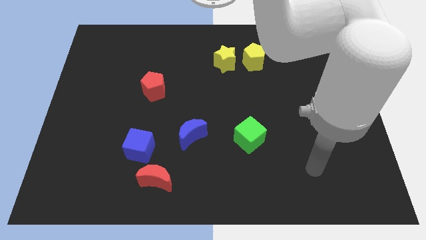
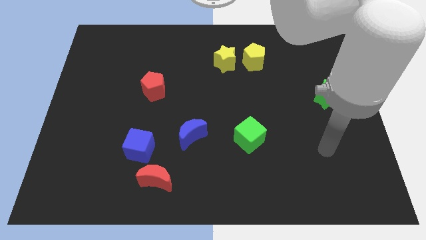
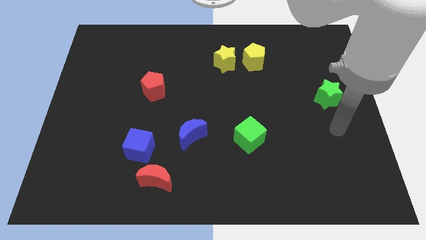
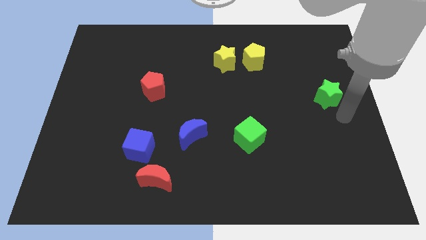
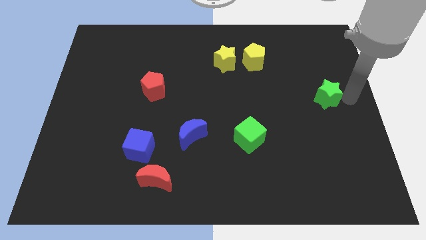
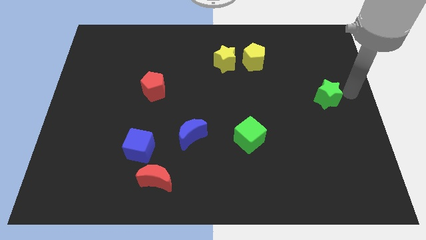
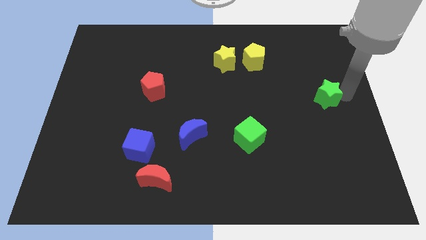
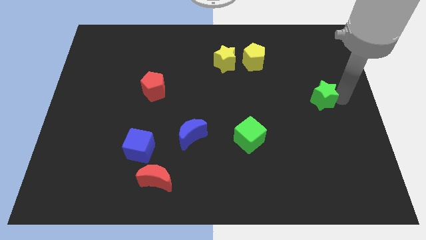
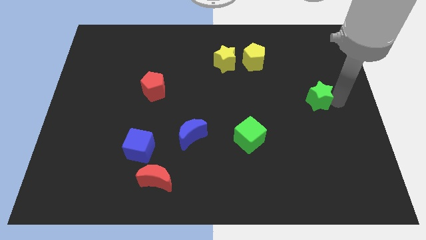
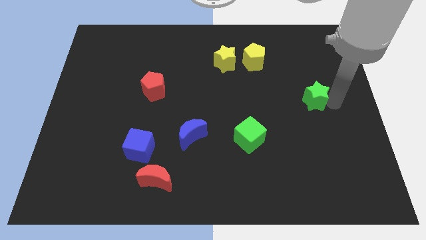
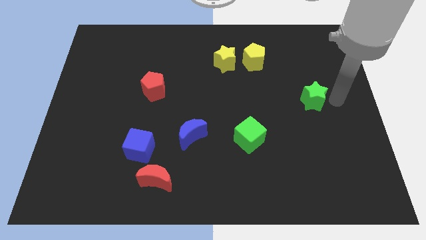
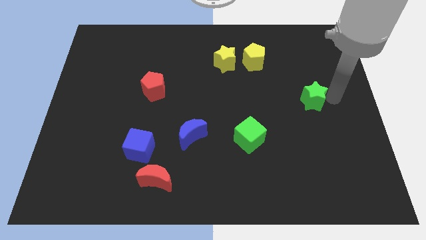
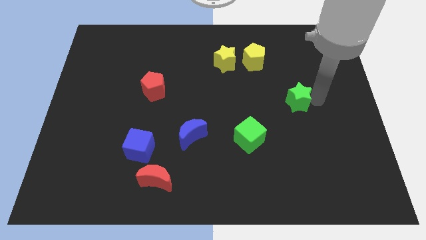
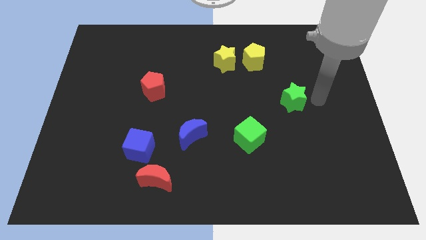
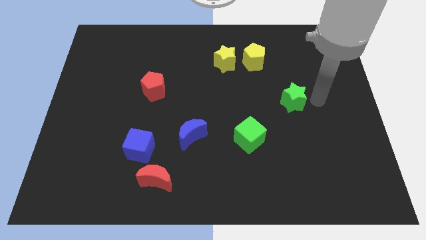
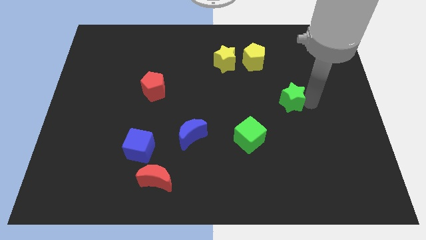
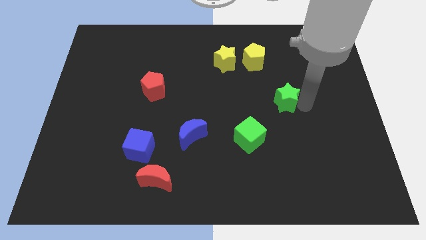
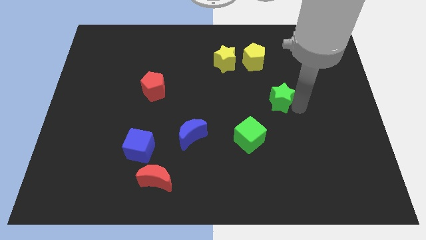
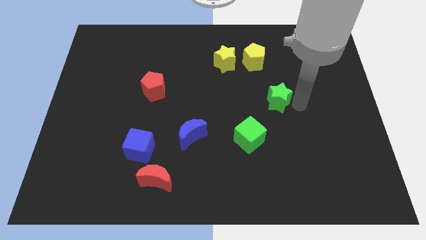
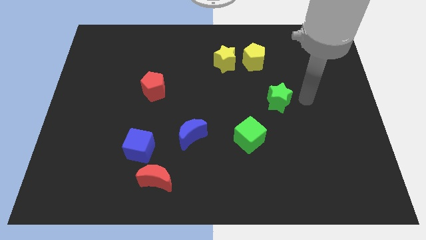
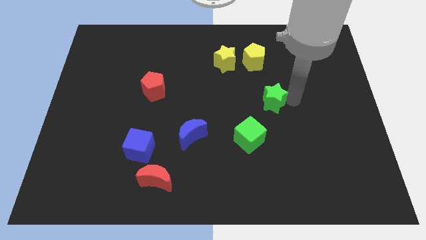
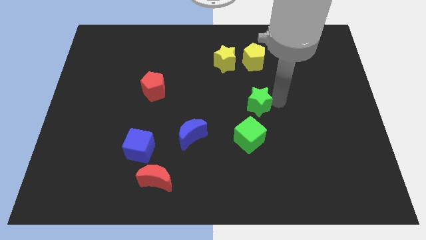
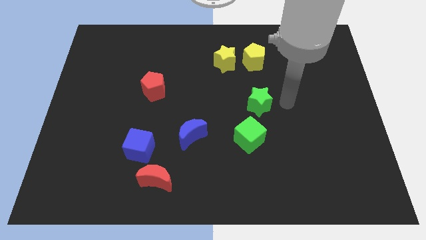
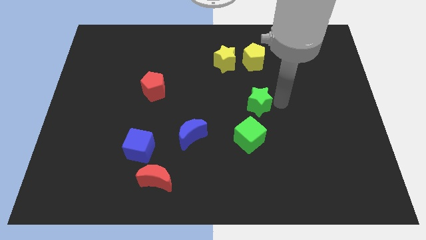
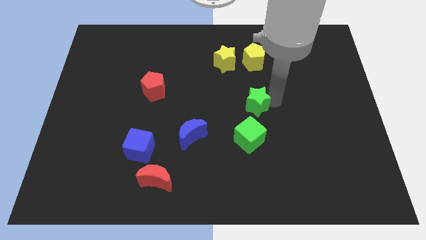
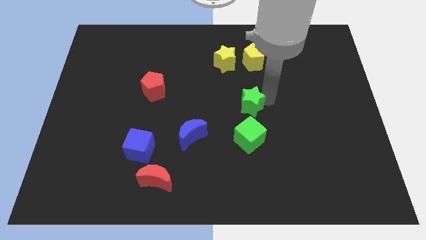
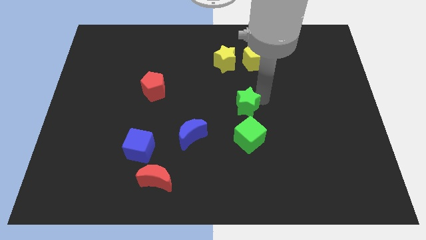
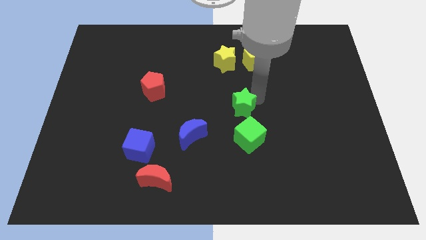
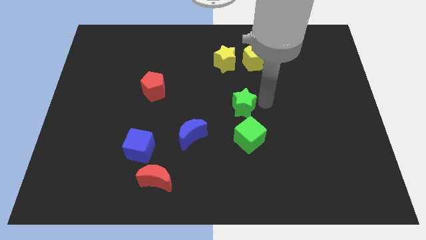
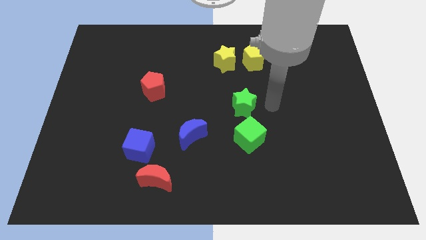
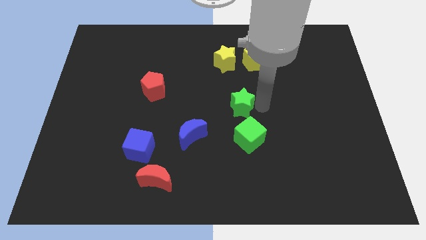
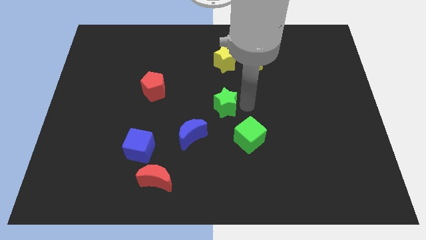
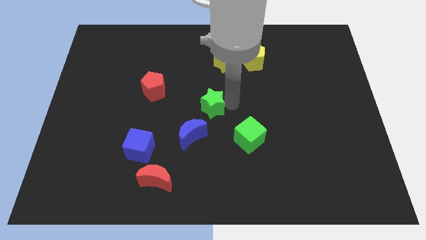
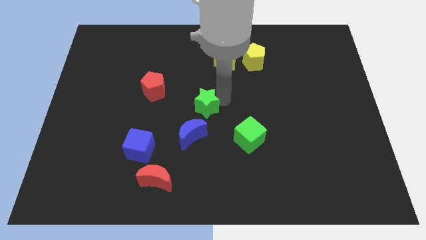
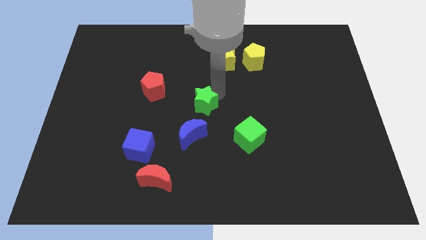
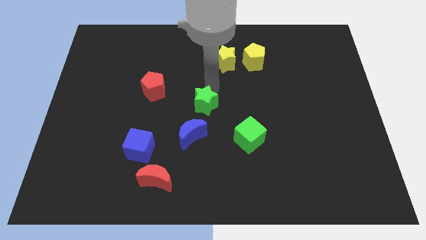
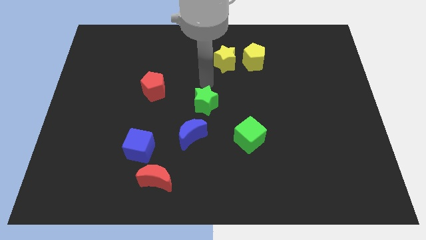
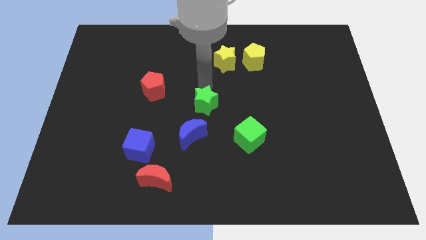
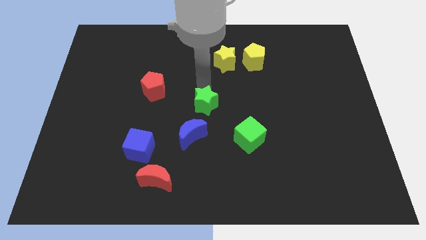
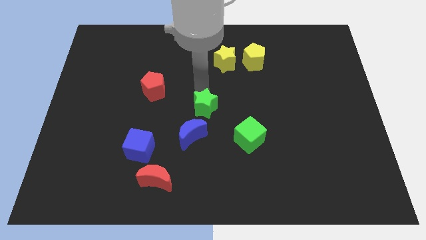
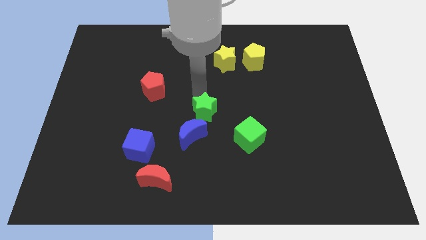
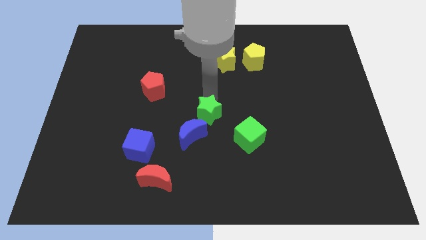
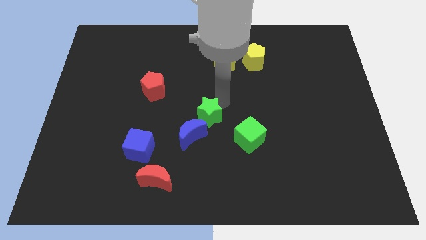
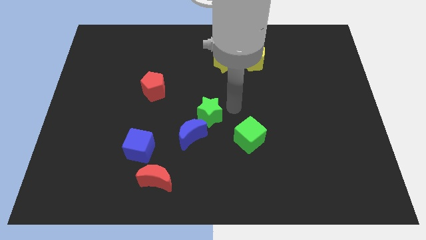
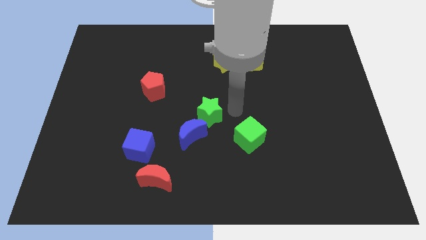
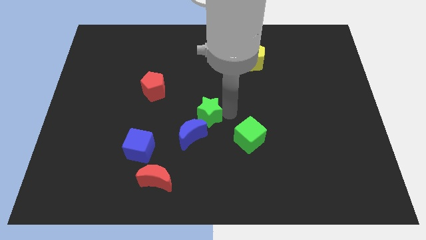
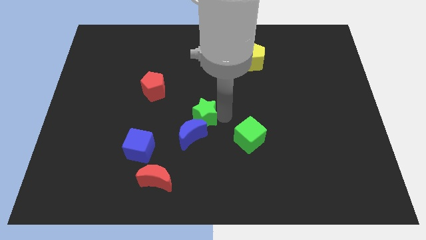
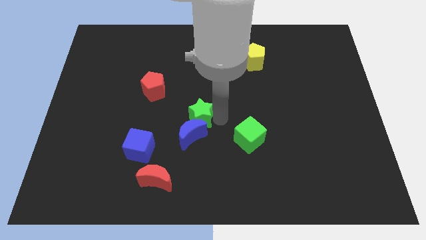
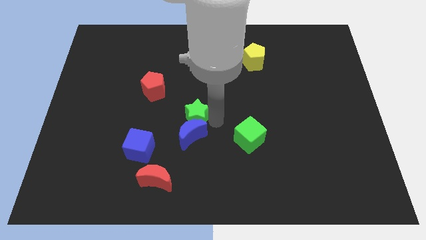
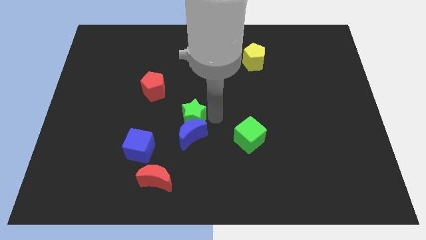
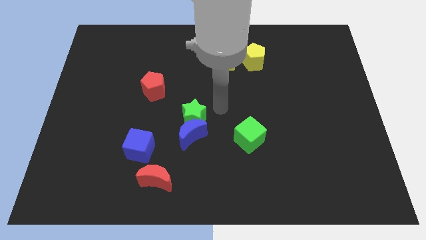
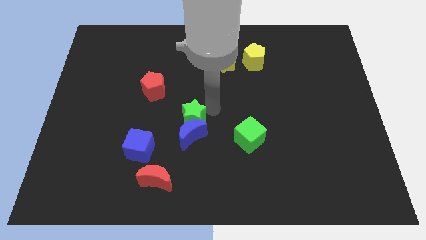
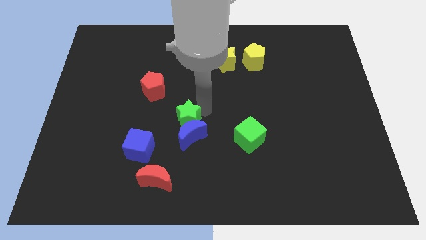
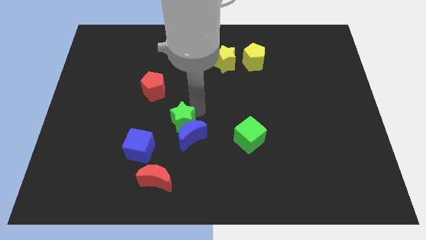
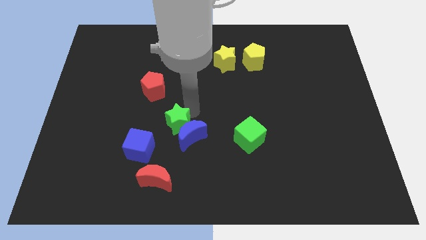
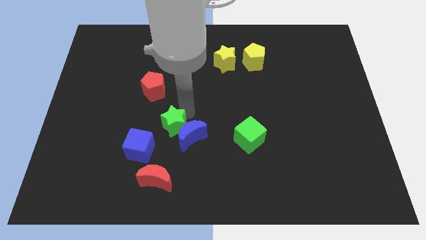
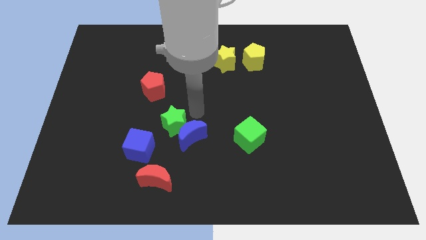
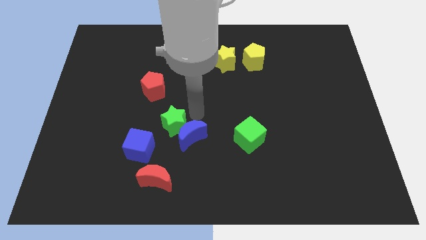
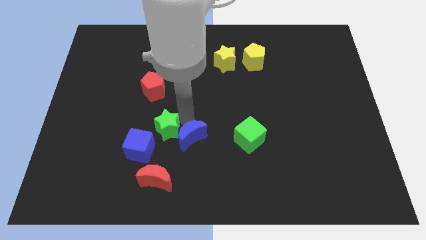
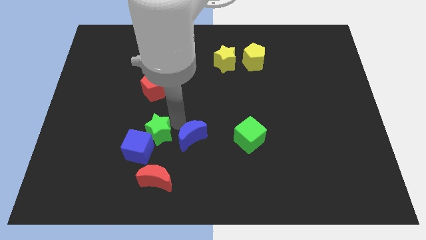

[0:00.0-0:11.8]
move the green star towards the blue cube

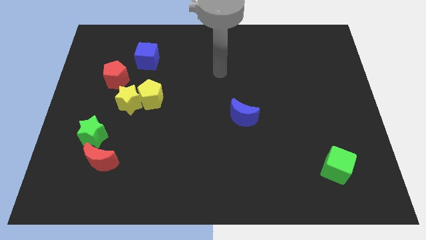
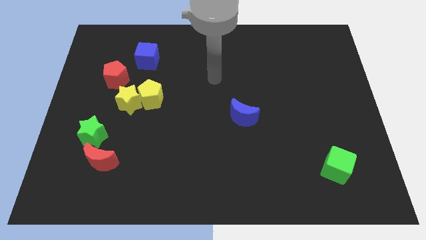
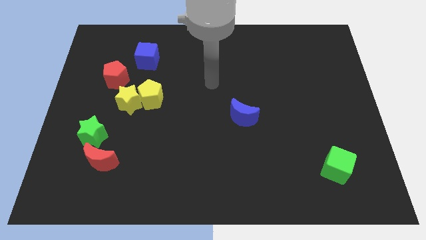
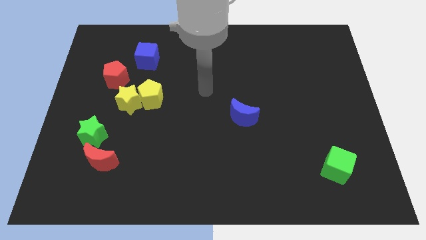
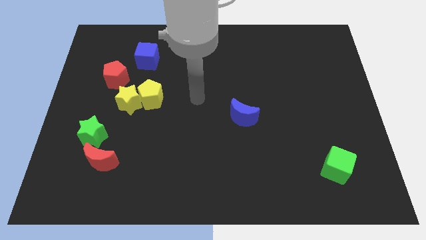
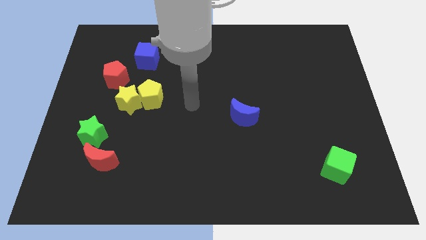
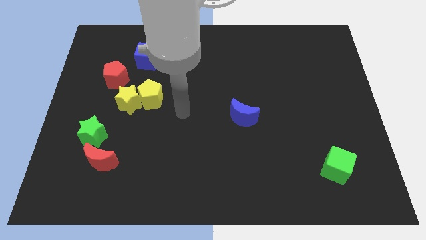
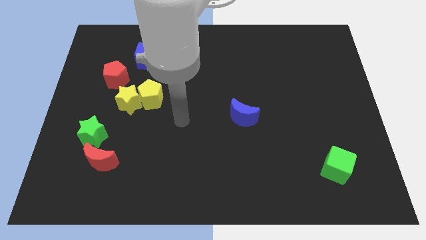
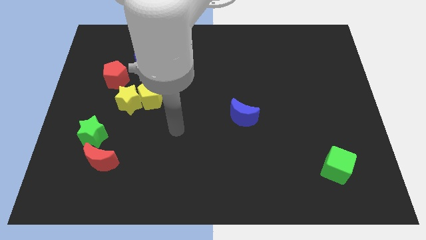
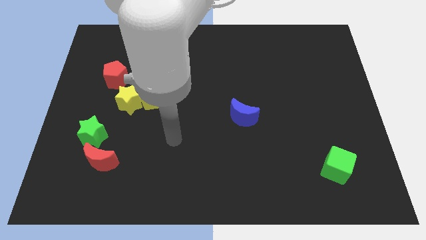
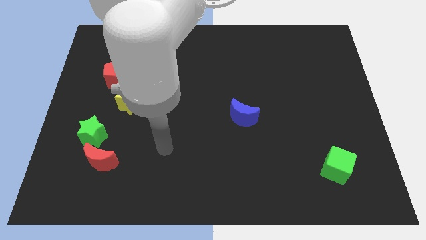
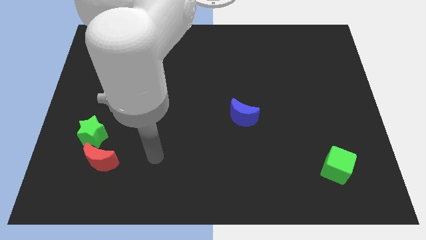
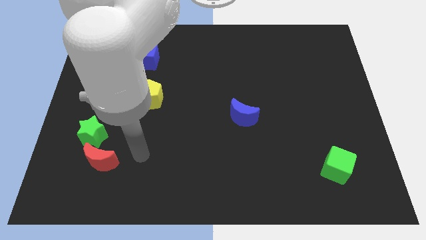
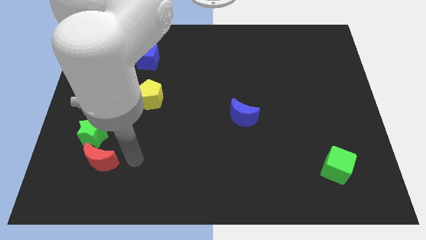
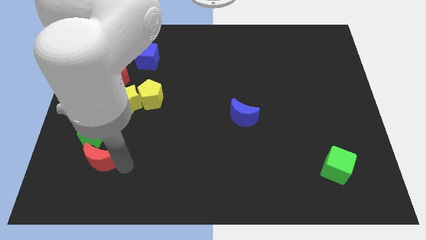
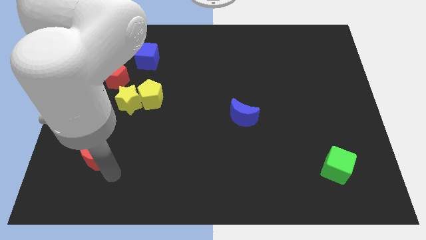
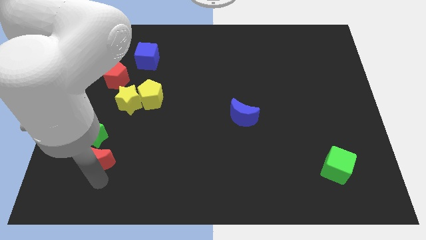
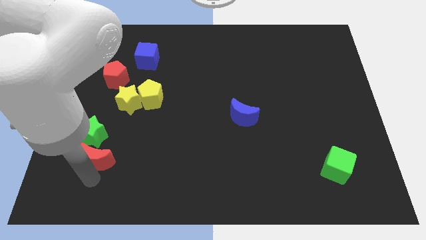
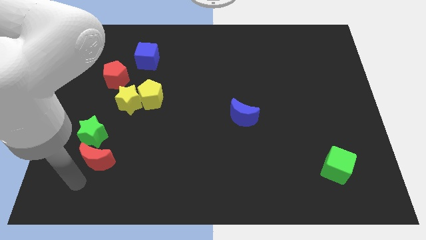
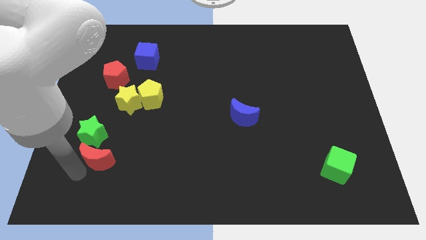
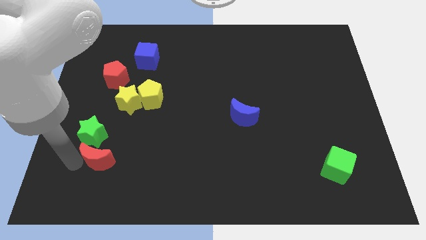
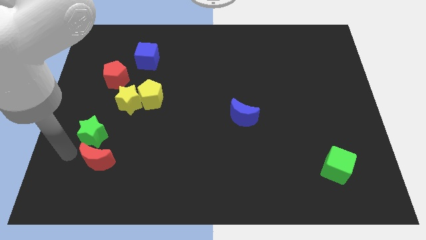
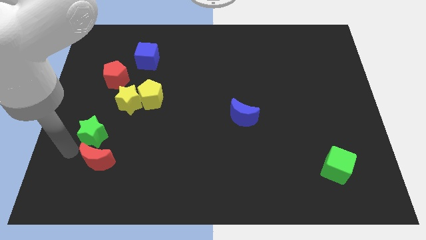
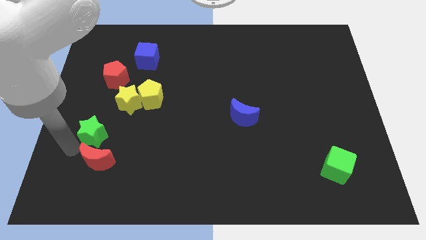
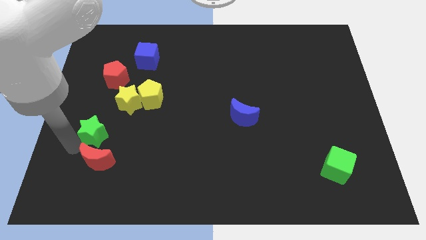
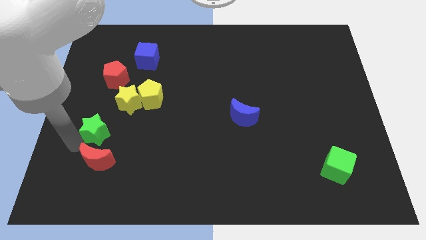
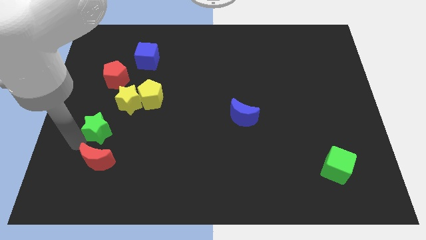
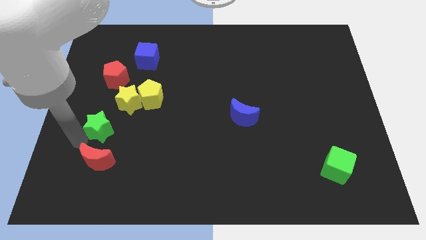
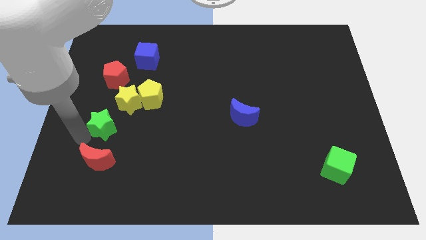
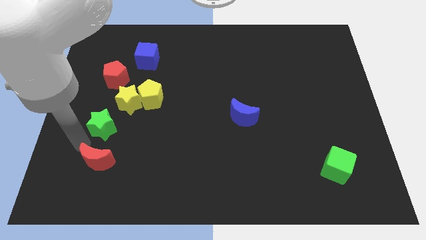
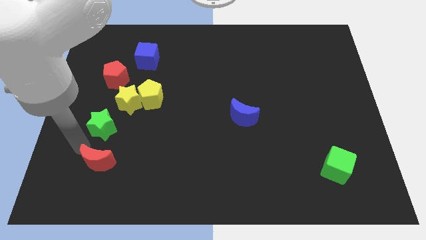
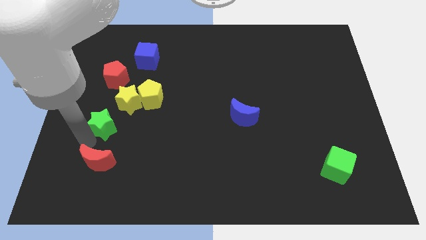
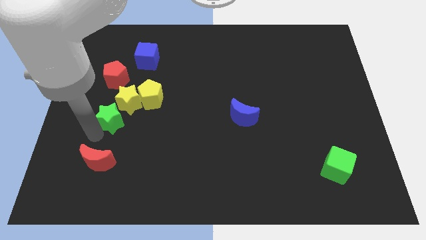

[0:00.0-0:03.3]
slide the green star towards the yellow star
